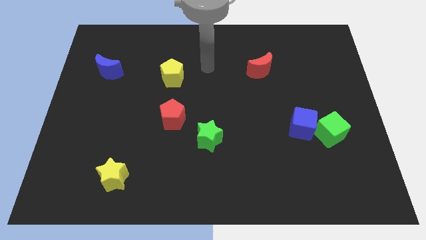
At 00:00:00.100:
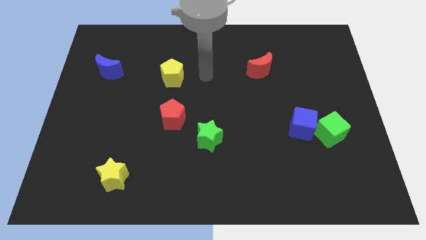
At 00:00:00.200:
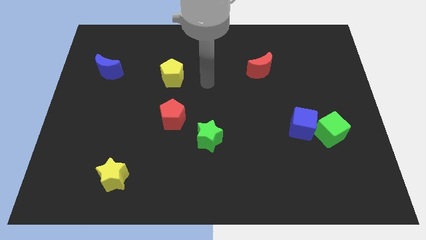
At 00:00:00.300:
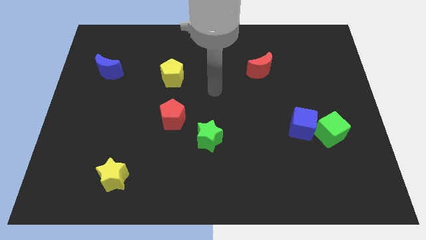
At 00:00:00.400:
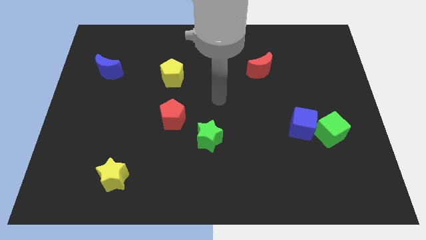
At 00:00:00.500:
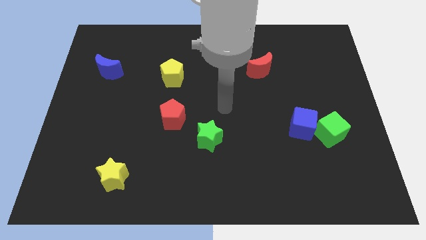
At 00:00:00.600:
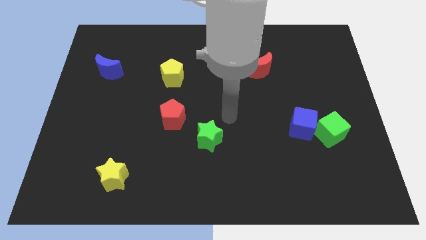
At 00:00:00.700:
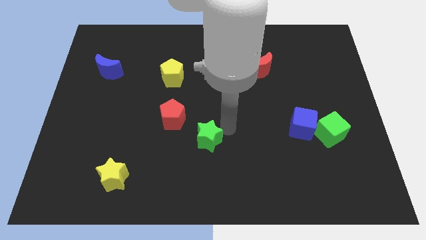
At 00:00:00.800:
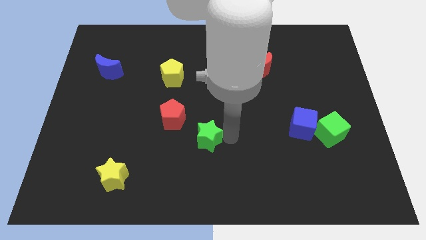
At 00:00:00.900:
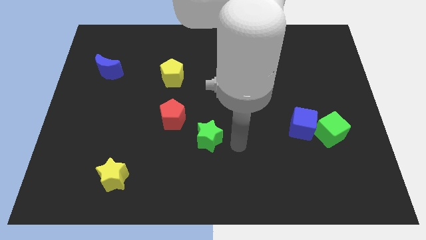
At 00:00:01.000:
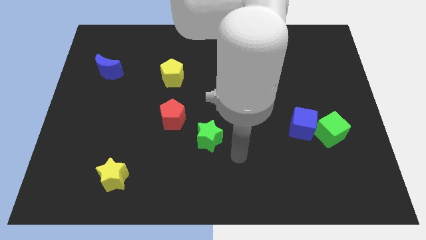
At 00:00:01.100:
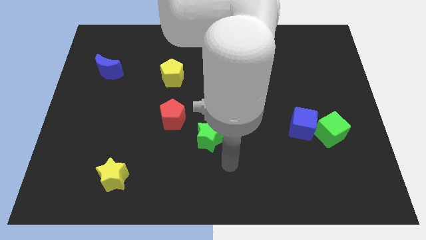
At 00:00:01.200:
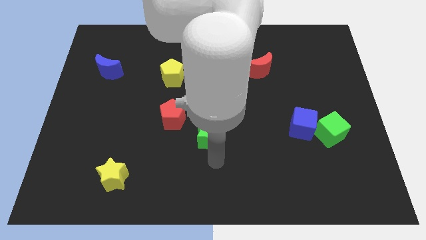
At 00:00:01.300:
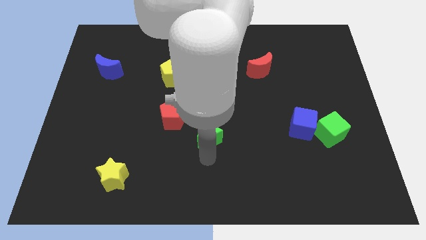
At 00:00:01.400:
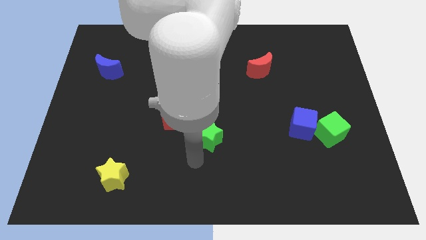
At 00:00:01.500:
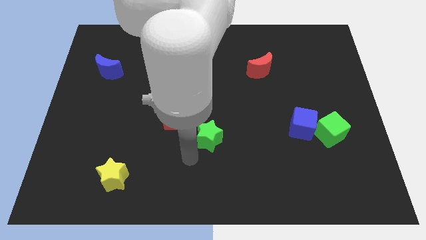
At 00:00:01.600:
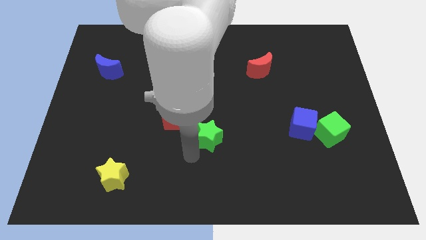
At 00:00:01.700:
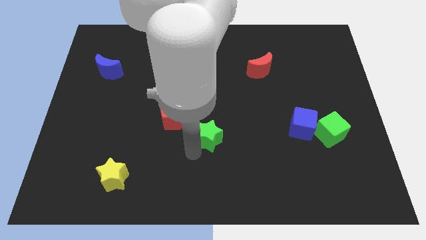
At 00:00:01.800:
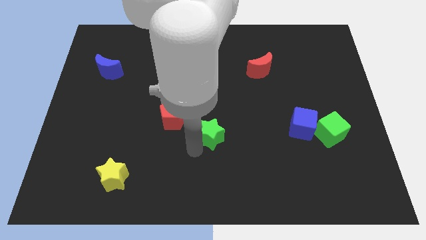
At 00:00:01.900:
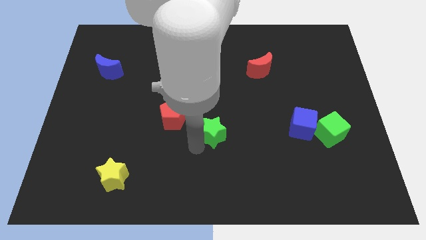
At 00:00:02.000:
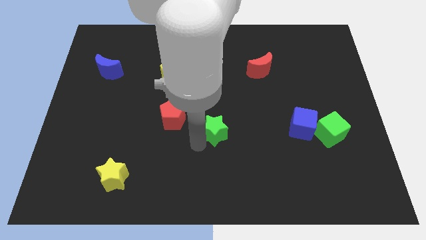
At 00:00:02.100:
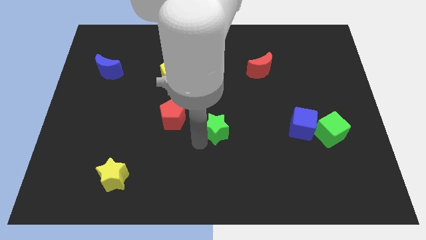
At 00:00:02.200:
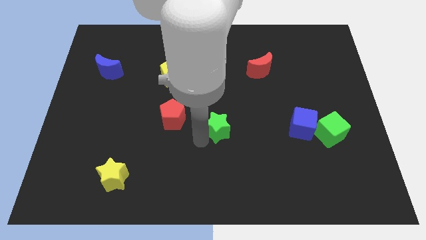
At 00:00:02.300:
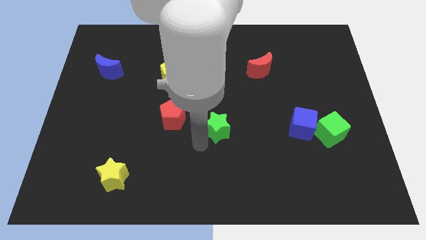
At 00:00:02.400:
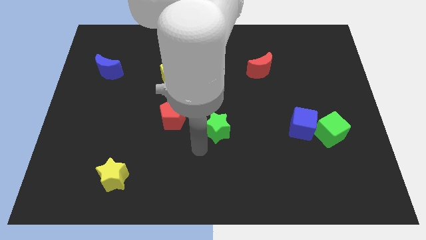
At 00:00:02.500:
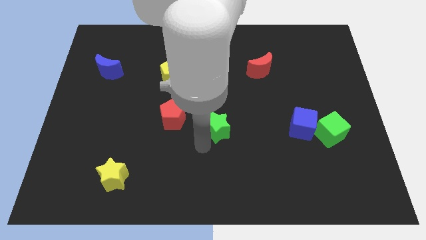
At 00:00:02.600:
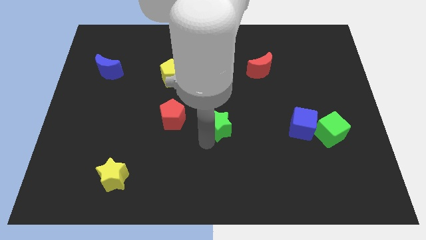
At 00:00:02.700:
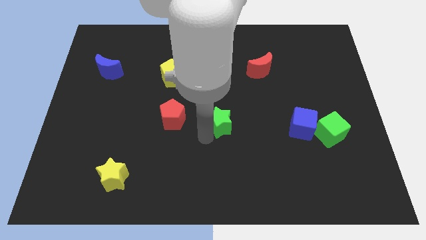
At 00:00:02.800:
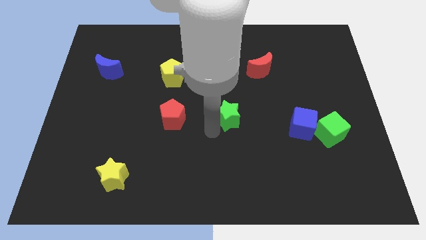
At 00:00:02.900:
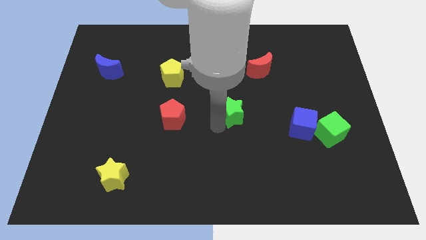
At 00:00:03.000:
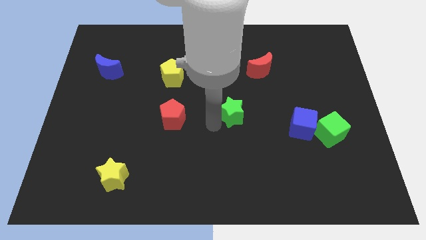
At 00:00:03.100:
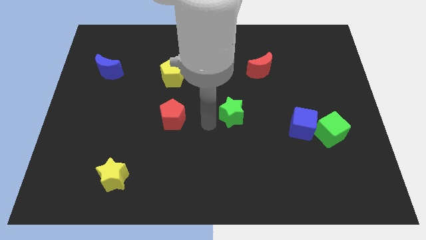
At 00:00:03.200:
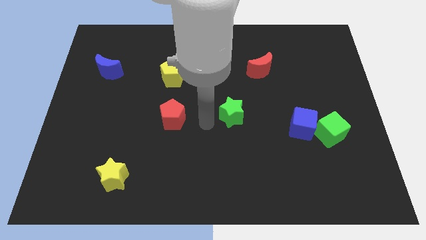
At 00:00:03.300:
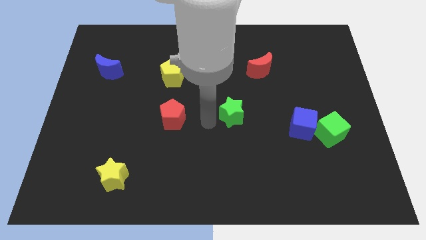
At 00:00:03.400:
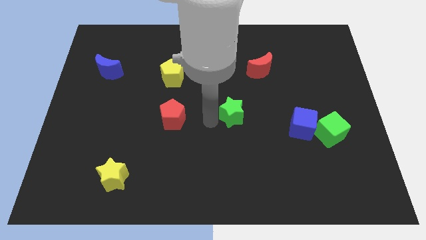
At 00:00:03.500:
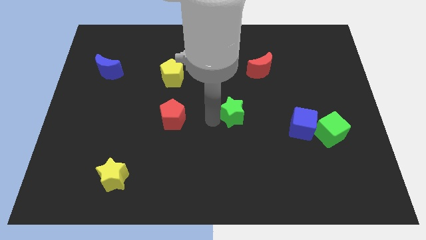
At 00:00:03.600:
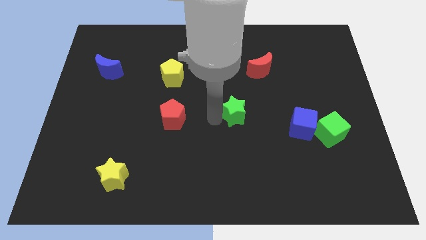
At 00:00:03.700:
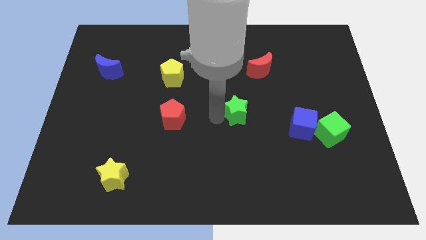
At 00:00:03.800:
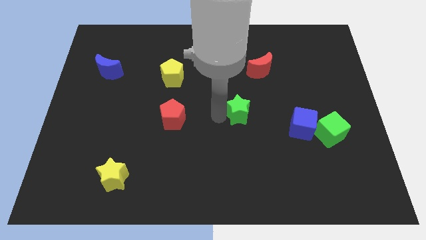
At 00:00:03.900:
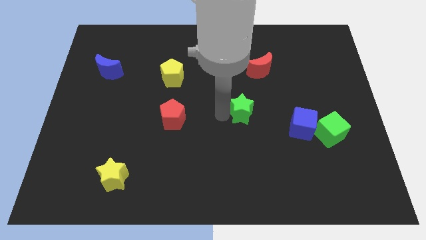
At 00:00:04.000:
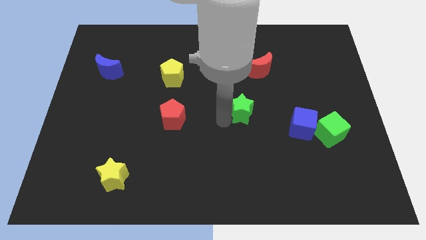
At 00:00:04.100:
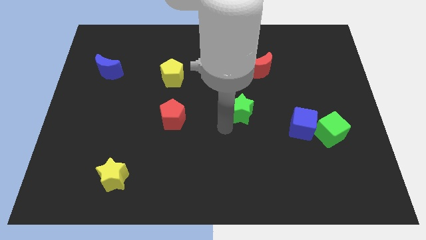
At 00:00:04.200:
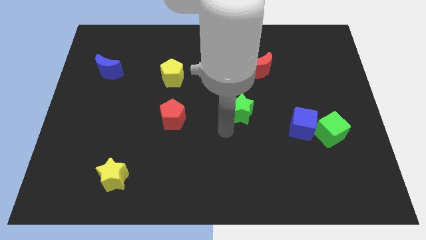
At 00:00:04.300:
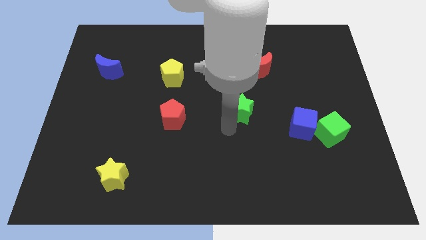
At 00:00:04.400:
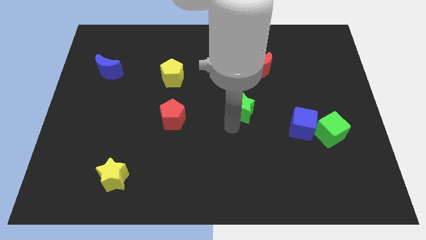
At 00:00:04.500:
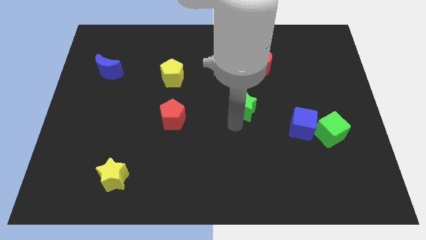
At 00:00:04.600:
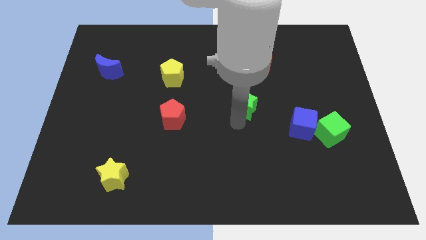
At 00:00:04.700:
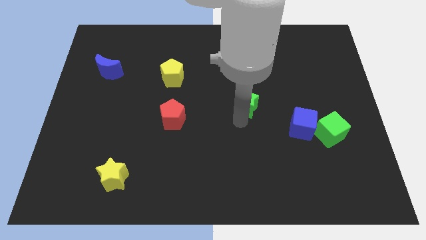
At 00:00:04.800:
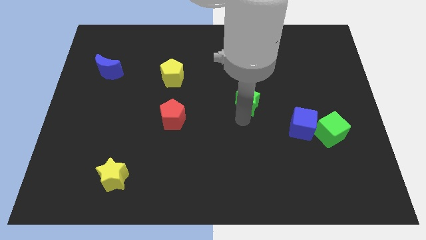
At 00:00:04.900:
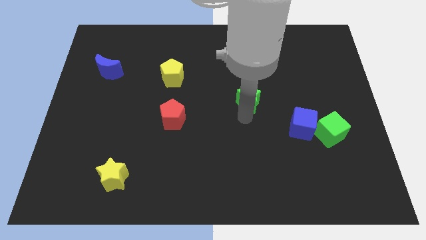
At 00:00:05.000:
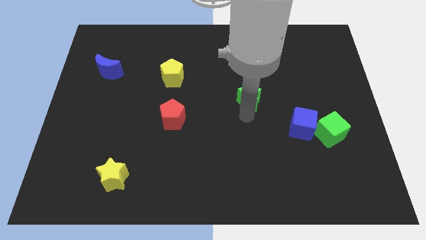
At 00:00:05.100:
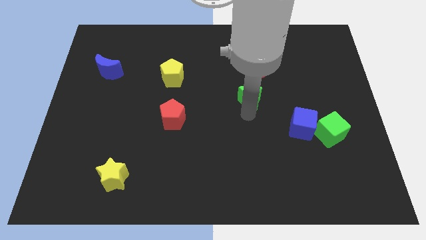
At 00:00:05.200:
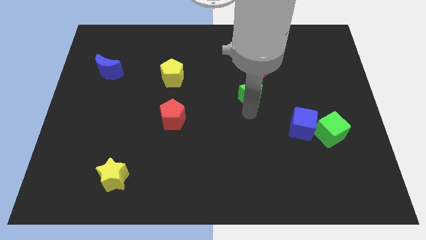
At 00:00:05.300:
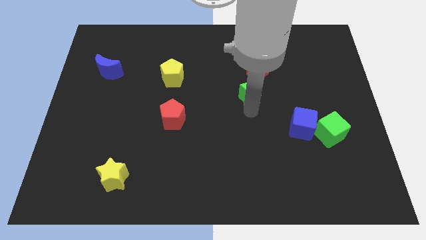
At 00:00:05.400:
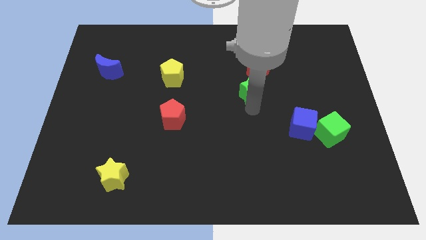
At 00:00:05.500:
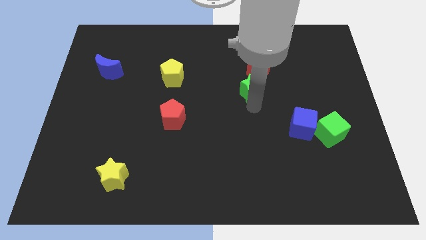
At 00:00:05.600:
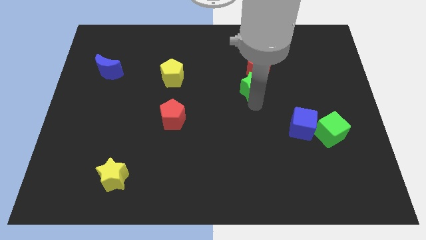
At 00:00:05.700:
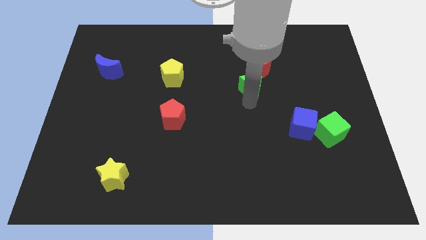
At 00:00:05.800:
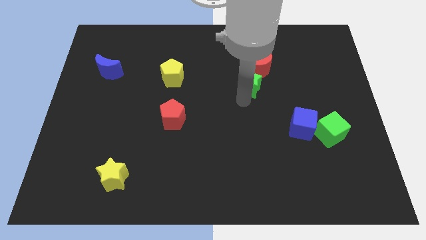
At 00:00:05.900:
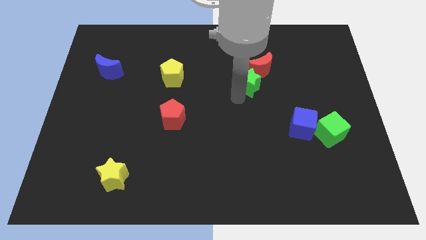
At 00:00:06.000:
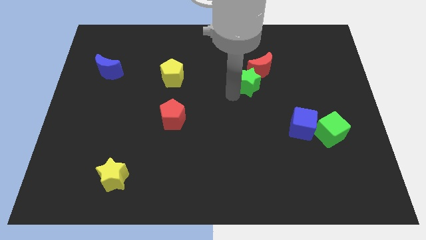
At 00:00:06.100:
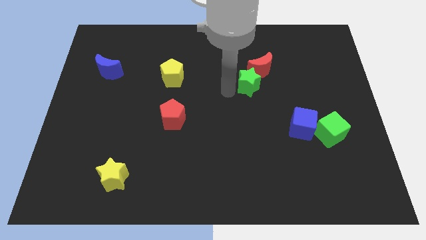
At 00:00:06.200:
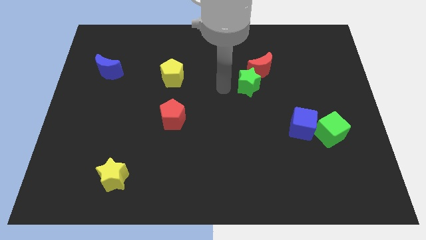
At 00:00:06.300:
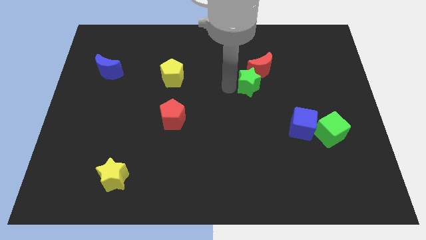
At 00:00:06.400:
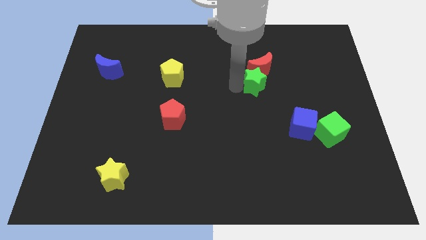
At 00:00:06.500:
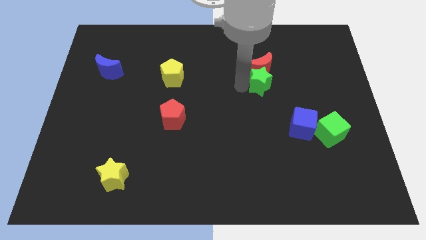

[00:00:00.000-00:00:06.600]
slide the green star up and right diagonally

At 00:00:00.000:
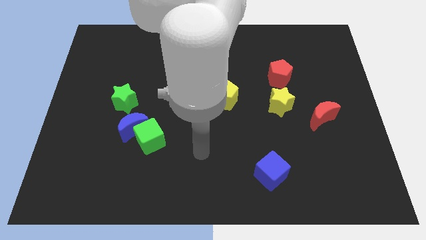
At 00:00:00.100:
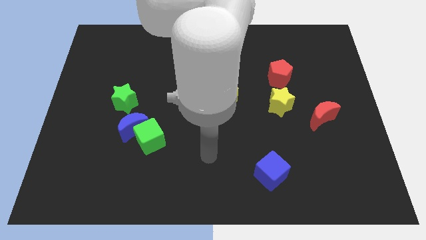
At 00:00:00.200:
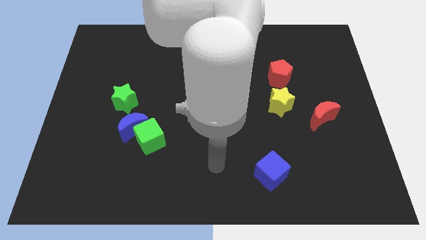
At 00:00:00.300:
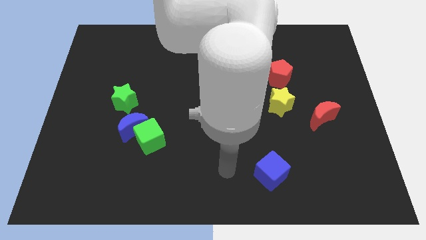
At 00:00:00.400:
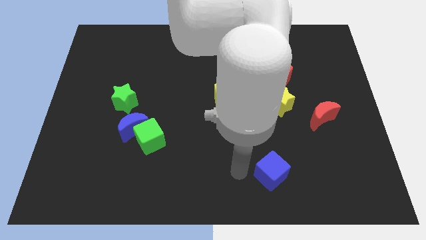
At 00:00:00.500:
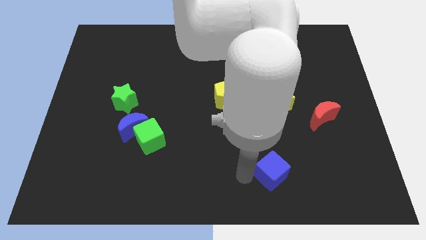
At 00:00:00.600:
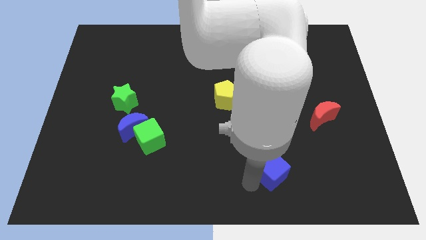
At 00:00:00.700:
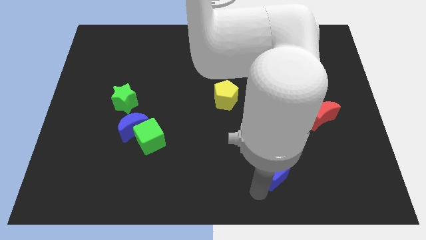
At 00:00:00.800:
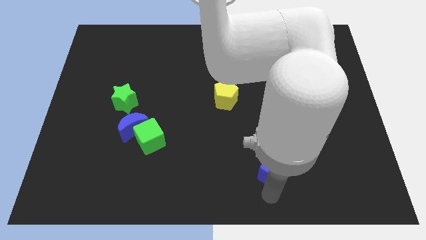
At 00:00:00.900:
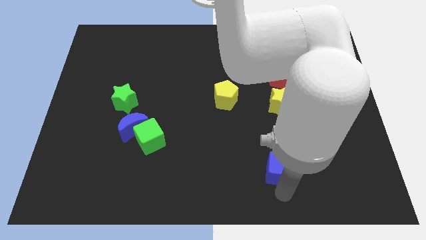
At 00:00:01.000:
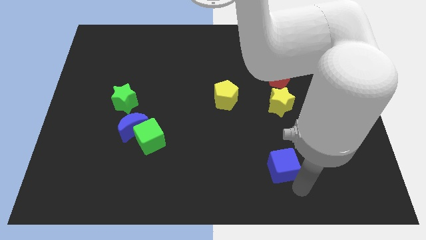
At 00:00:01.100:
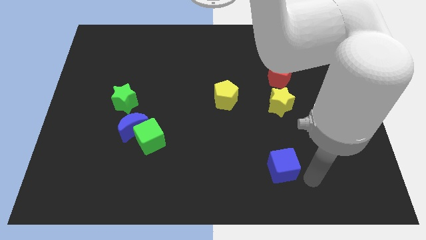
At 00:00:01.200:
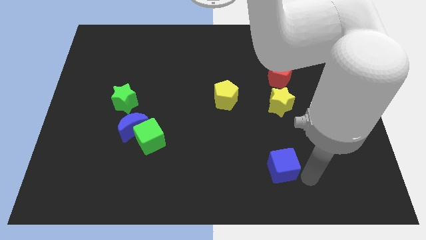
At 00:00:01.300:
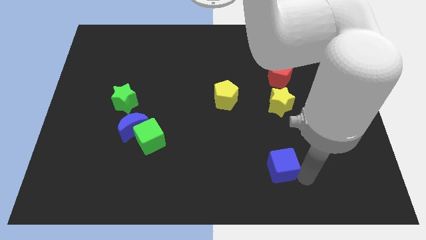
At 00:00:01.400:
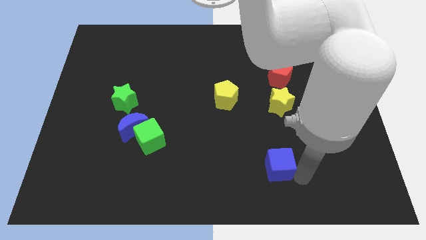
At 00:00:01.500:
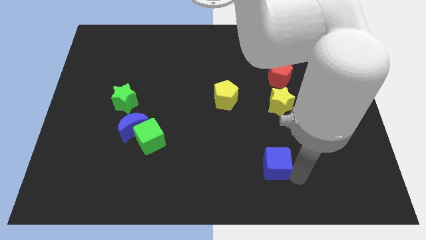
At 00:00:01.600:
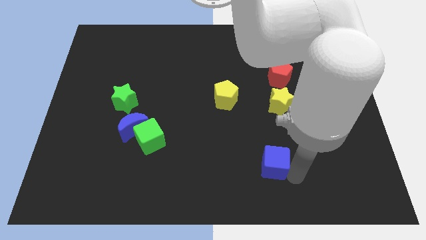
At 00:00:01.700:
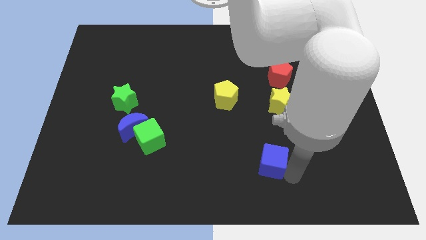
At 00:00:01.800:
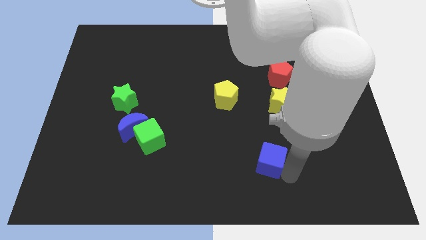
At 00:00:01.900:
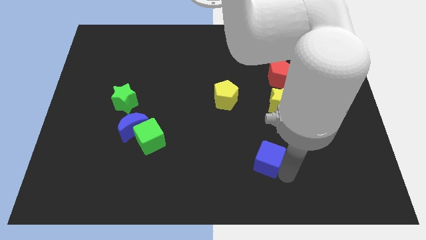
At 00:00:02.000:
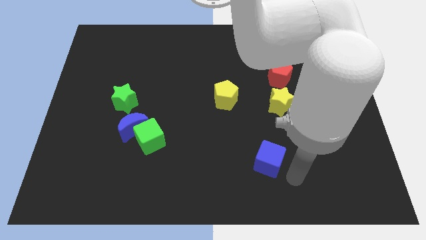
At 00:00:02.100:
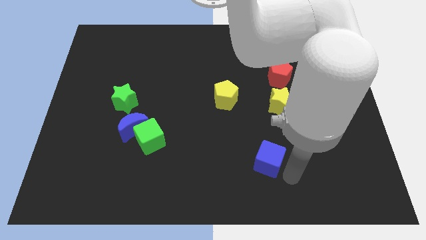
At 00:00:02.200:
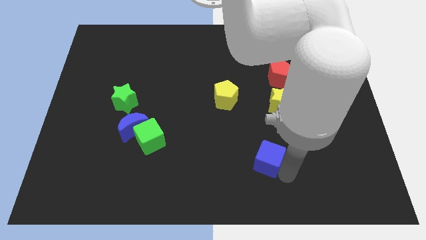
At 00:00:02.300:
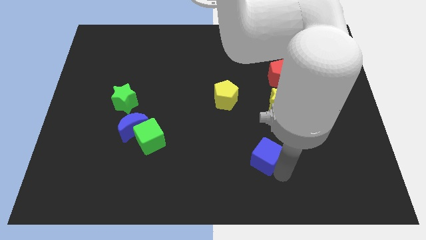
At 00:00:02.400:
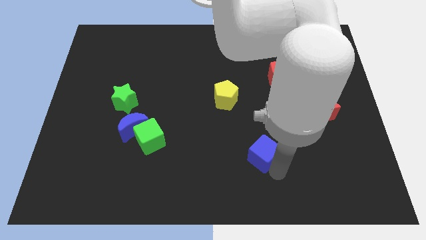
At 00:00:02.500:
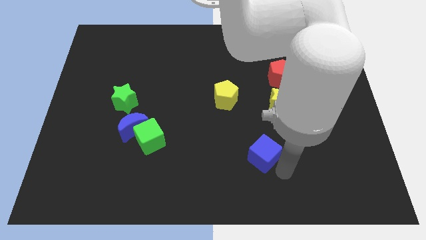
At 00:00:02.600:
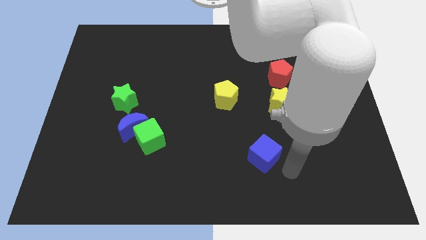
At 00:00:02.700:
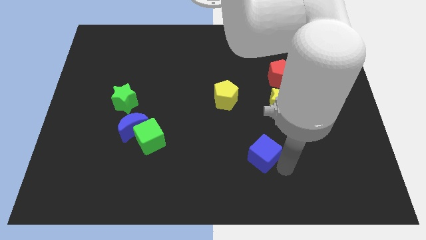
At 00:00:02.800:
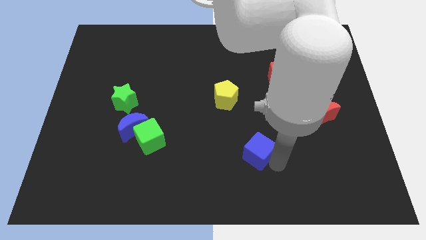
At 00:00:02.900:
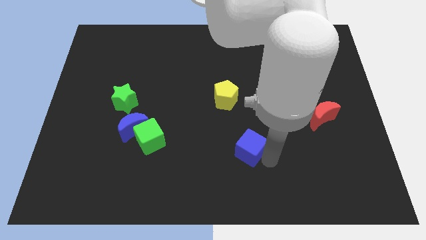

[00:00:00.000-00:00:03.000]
slide the blue cube a bit upwards and to the left
